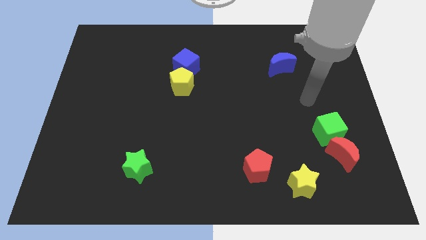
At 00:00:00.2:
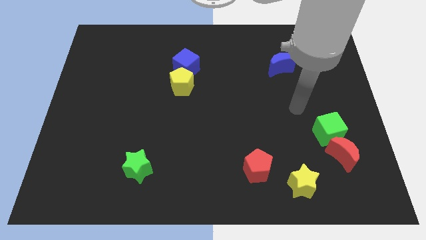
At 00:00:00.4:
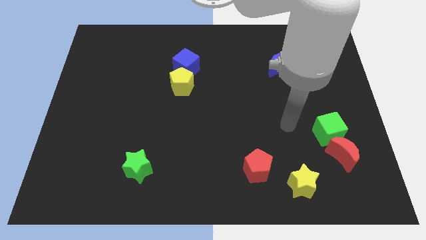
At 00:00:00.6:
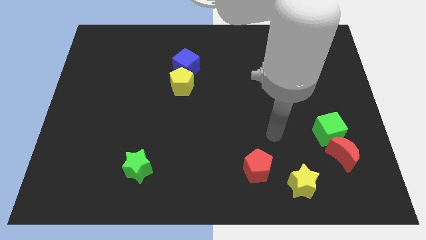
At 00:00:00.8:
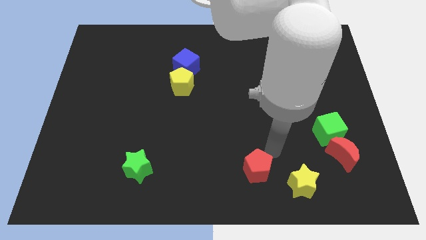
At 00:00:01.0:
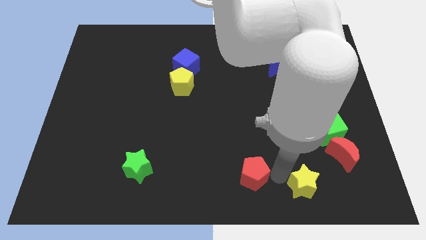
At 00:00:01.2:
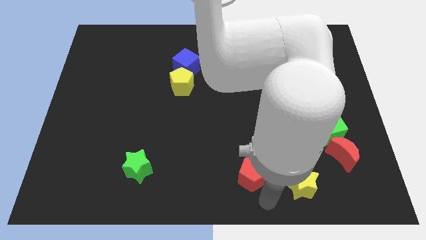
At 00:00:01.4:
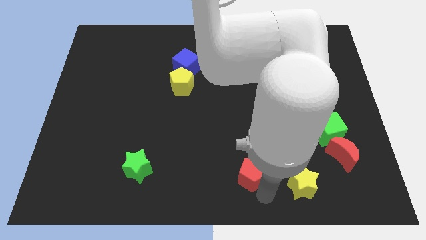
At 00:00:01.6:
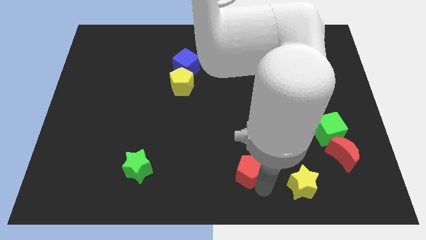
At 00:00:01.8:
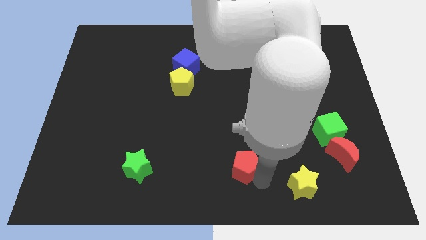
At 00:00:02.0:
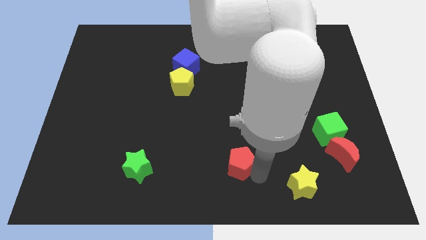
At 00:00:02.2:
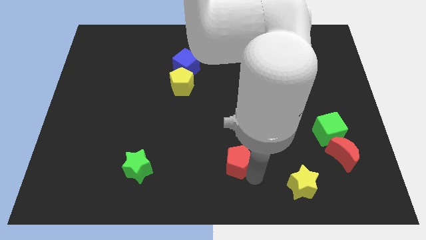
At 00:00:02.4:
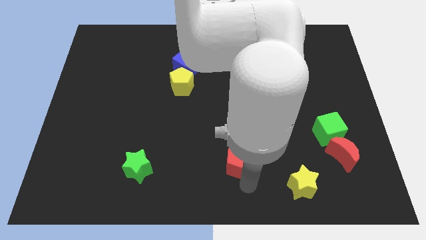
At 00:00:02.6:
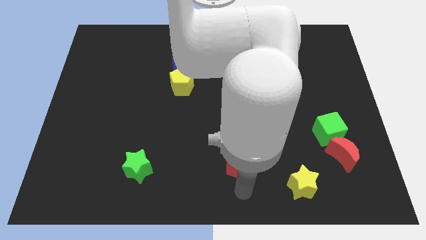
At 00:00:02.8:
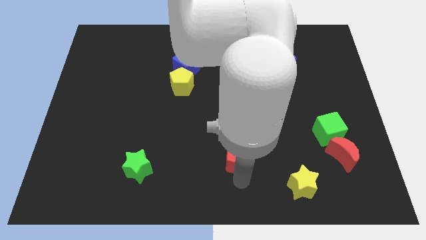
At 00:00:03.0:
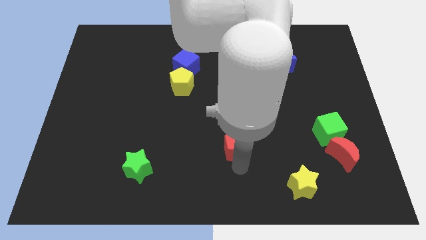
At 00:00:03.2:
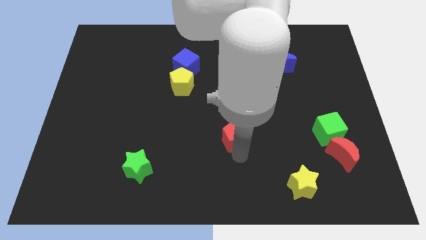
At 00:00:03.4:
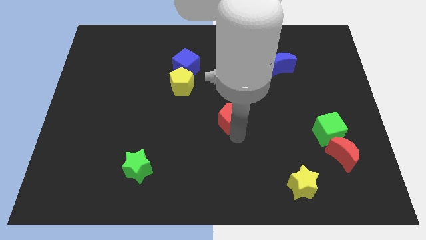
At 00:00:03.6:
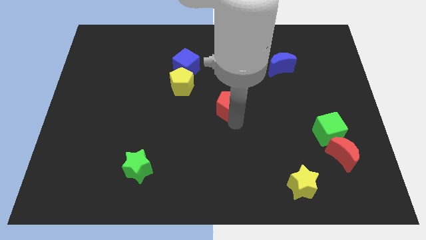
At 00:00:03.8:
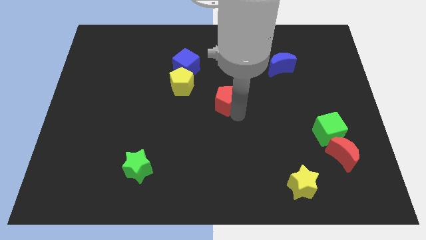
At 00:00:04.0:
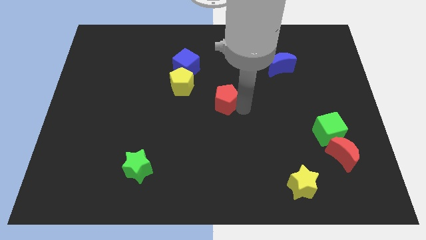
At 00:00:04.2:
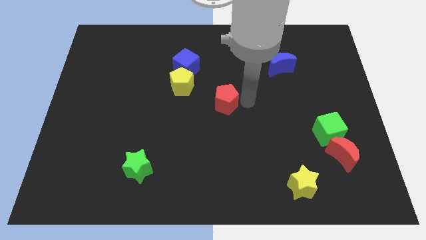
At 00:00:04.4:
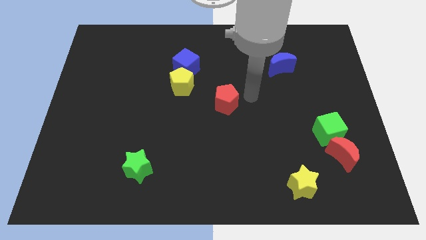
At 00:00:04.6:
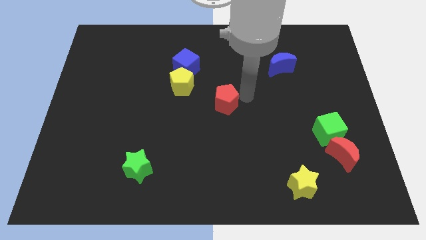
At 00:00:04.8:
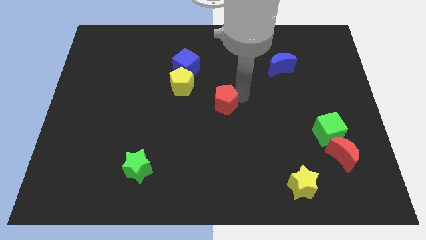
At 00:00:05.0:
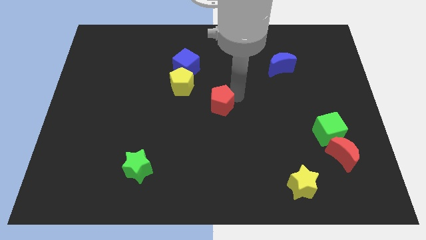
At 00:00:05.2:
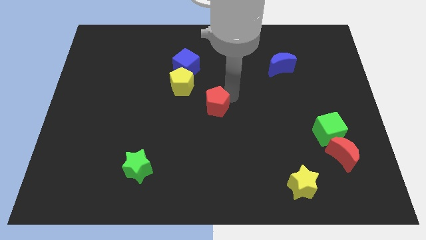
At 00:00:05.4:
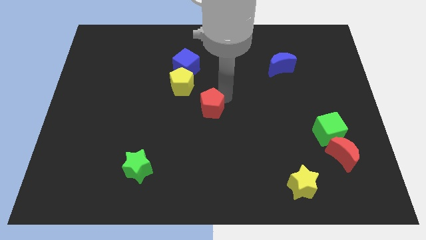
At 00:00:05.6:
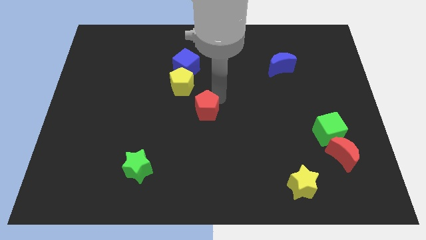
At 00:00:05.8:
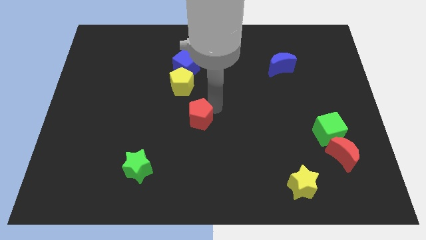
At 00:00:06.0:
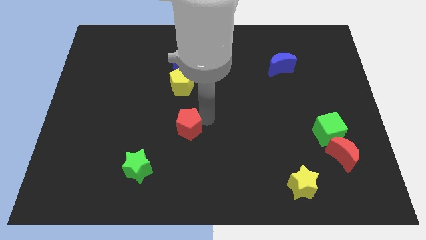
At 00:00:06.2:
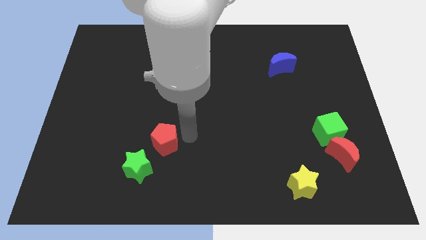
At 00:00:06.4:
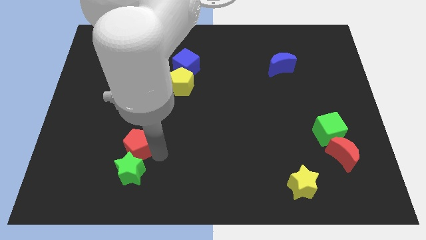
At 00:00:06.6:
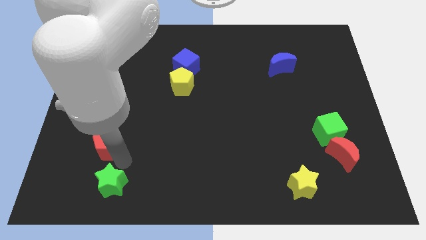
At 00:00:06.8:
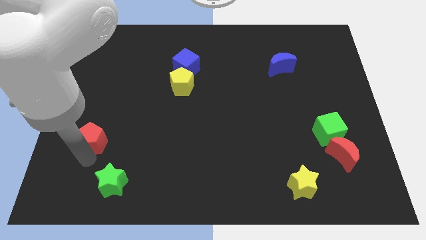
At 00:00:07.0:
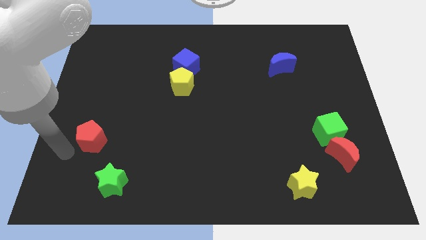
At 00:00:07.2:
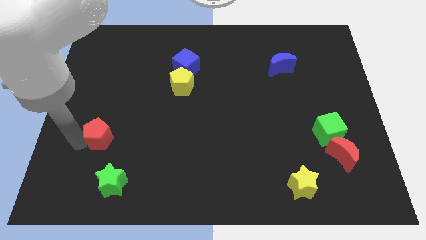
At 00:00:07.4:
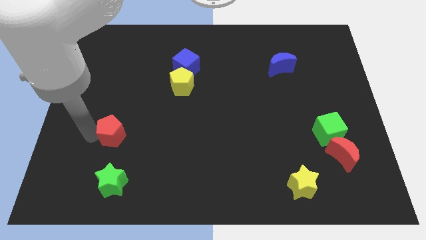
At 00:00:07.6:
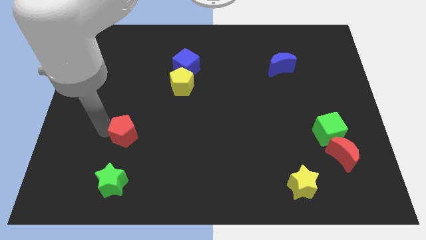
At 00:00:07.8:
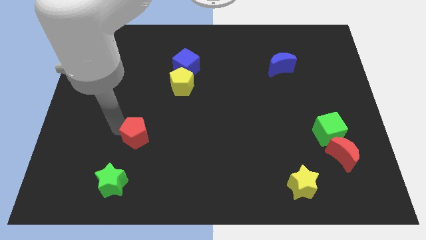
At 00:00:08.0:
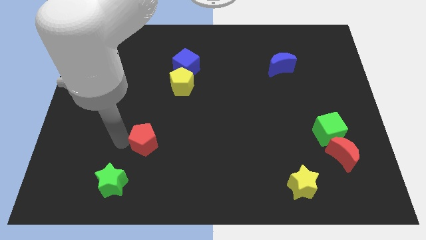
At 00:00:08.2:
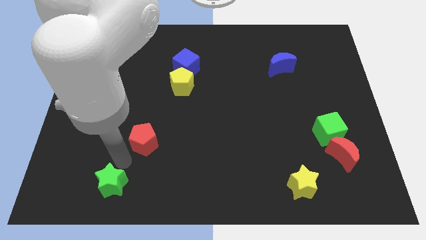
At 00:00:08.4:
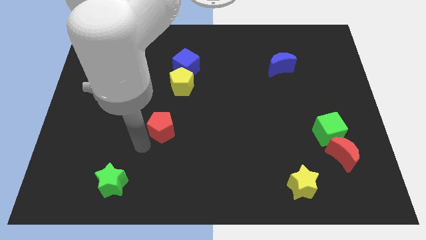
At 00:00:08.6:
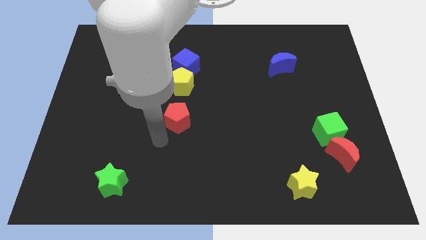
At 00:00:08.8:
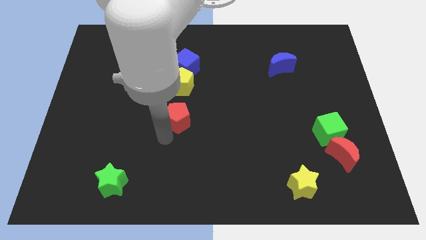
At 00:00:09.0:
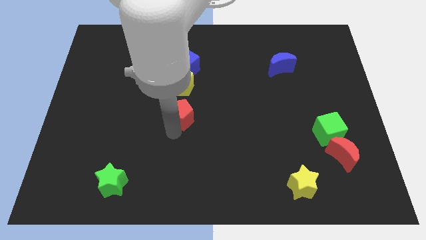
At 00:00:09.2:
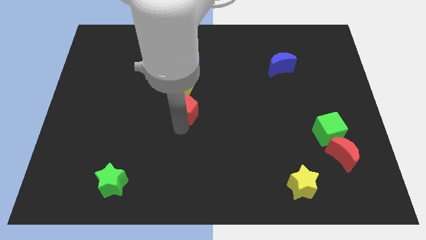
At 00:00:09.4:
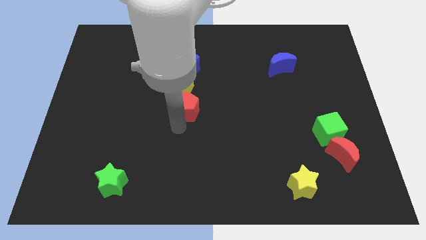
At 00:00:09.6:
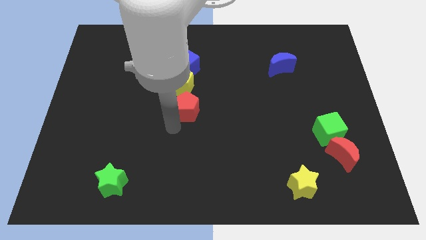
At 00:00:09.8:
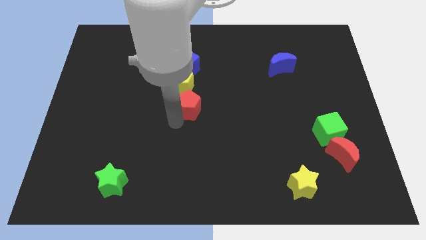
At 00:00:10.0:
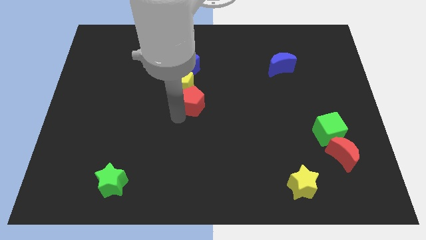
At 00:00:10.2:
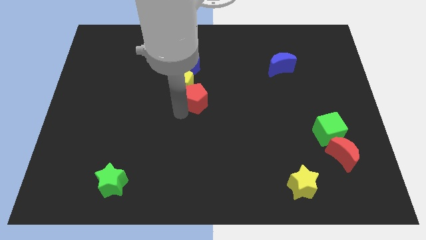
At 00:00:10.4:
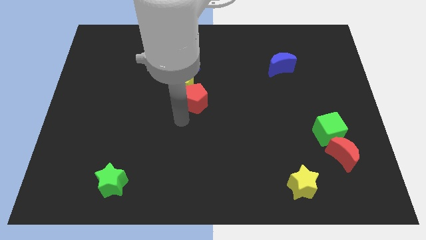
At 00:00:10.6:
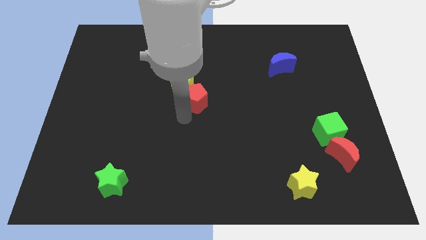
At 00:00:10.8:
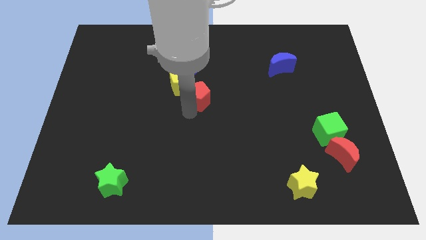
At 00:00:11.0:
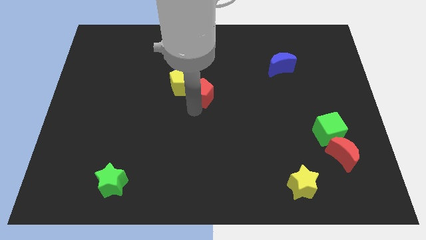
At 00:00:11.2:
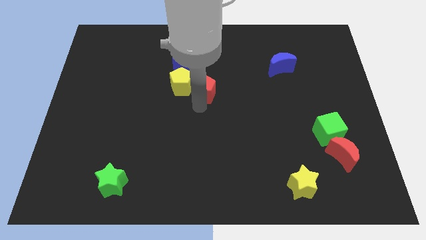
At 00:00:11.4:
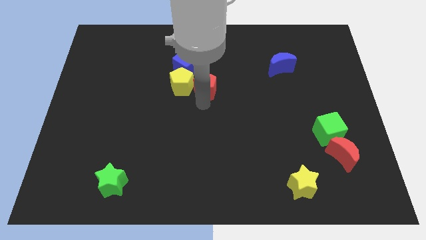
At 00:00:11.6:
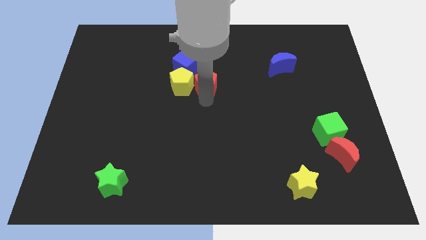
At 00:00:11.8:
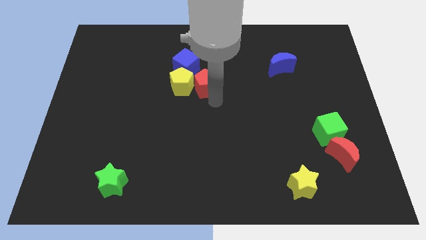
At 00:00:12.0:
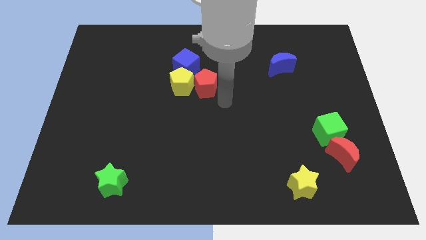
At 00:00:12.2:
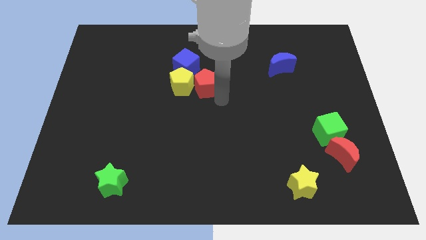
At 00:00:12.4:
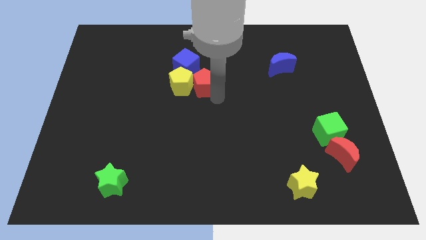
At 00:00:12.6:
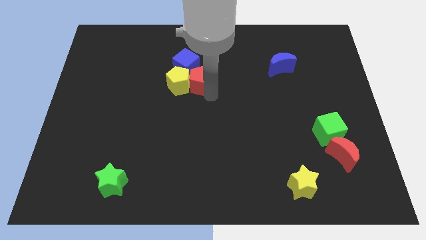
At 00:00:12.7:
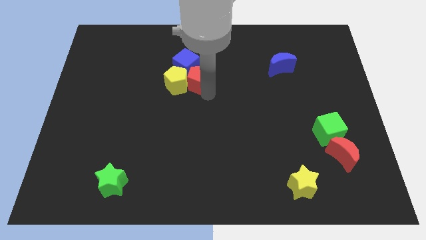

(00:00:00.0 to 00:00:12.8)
put the red pentagon close to the blue cube

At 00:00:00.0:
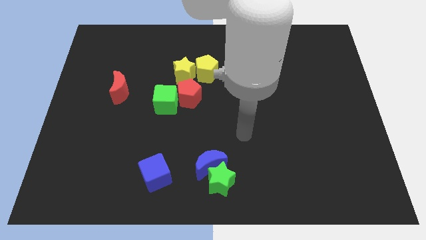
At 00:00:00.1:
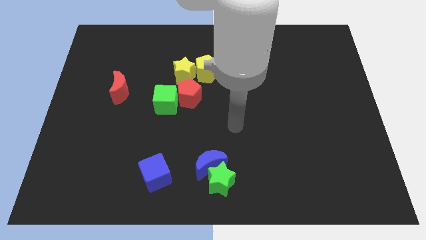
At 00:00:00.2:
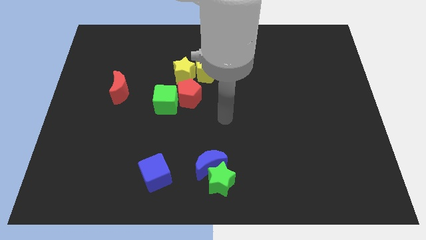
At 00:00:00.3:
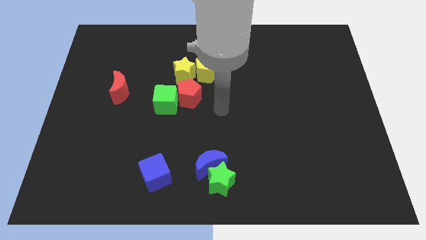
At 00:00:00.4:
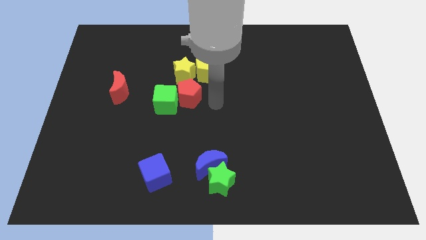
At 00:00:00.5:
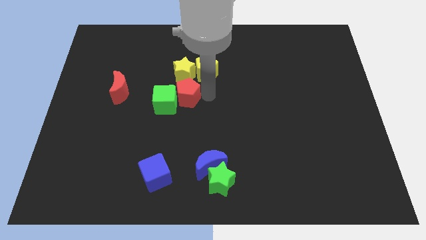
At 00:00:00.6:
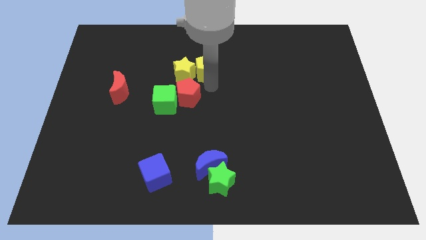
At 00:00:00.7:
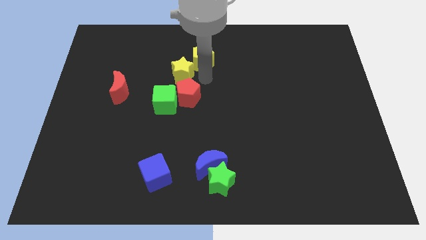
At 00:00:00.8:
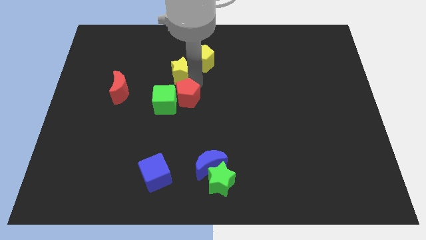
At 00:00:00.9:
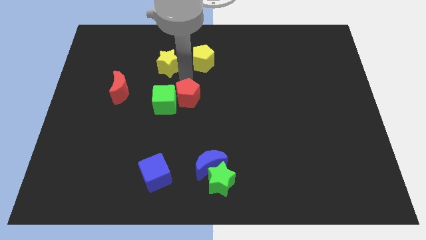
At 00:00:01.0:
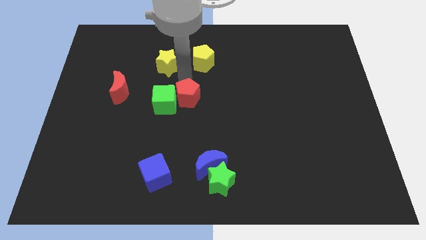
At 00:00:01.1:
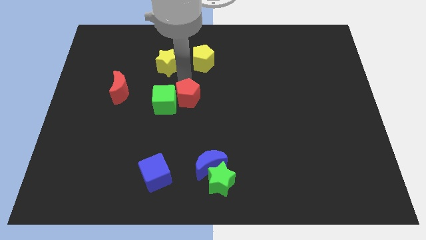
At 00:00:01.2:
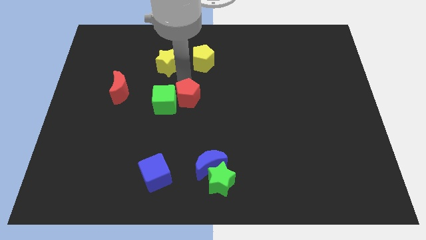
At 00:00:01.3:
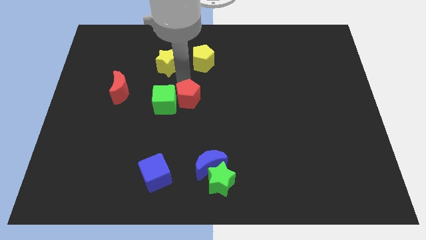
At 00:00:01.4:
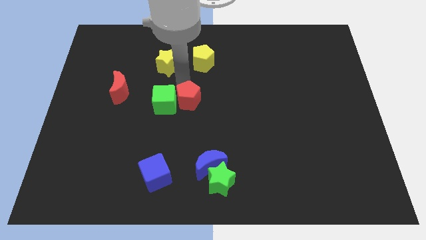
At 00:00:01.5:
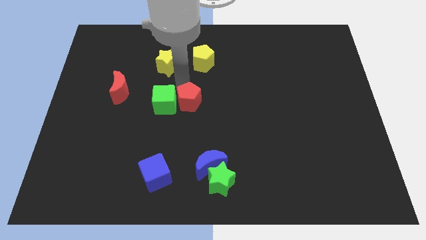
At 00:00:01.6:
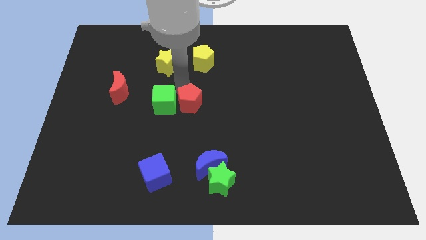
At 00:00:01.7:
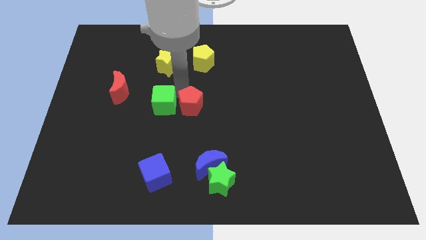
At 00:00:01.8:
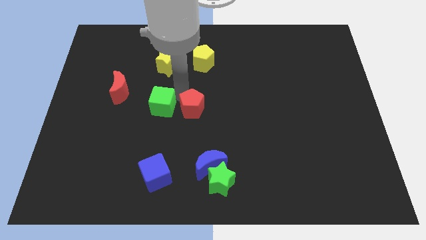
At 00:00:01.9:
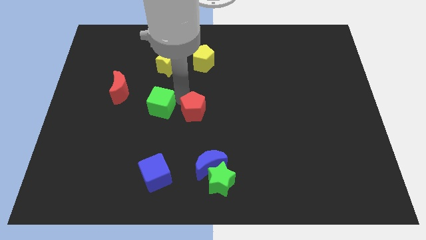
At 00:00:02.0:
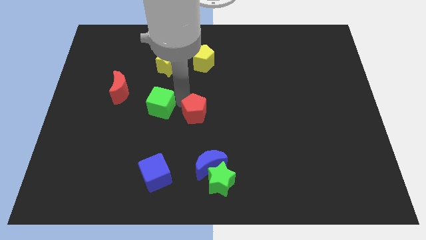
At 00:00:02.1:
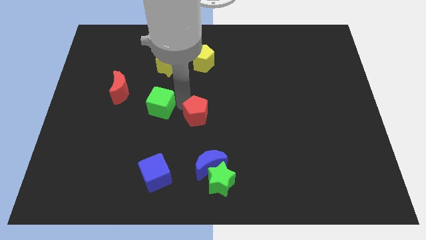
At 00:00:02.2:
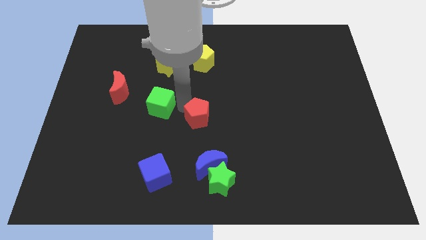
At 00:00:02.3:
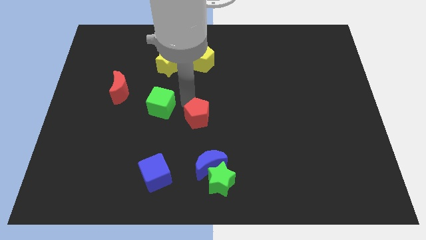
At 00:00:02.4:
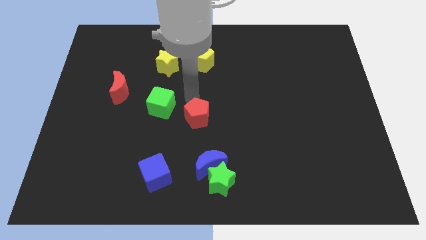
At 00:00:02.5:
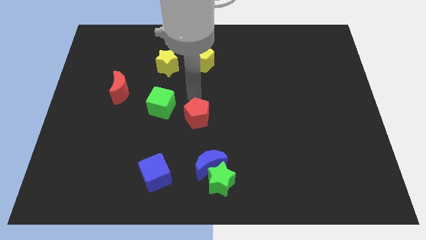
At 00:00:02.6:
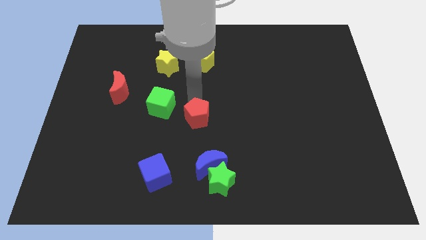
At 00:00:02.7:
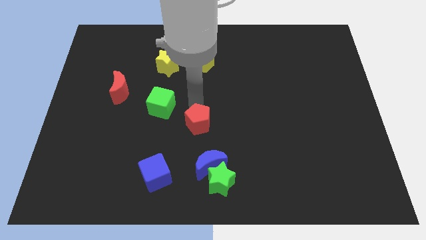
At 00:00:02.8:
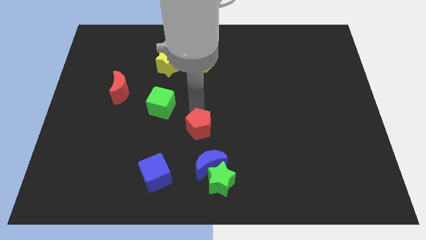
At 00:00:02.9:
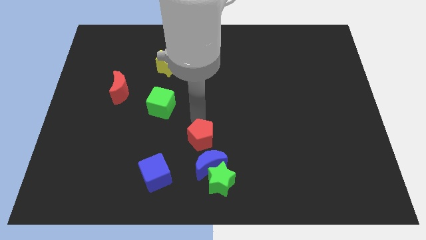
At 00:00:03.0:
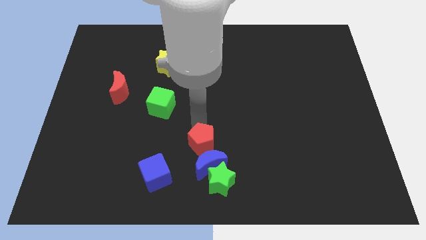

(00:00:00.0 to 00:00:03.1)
slide the red pentagon close to the blue moon
